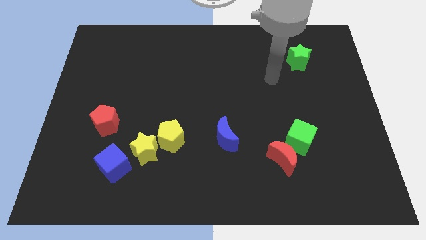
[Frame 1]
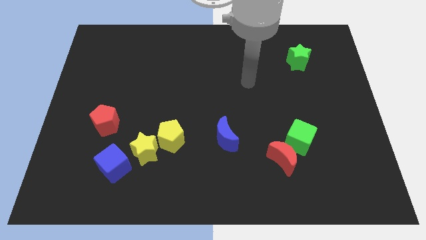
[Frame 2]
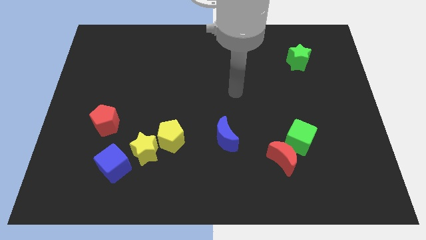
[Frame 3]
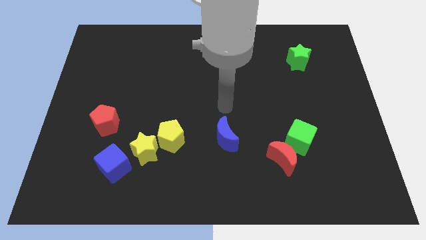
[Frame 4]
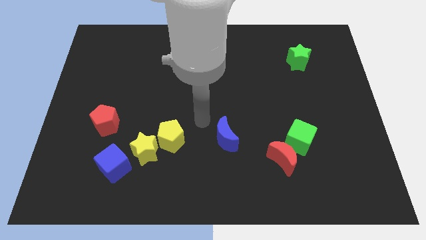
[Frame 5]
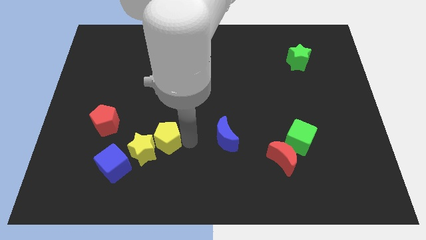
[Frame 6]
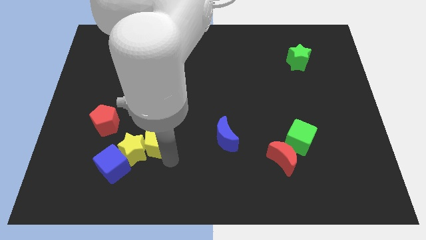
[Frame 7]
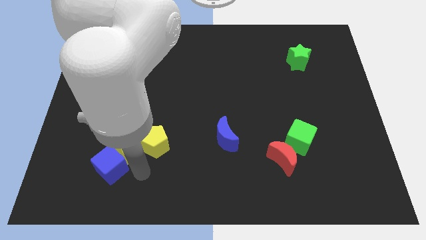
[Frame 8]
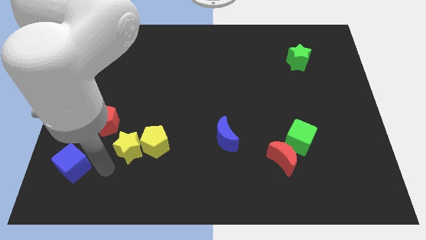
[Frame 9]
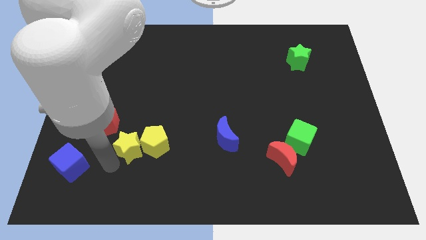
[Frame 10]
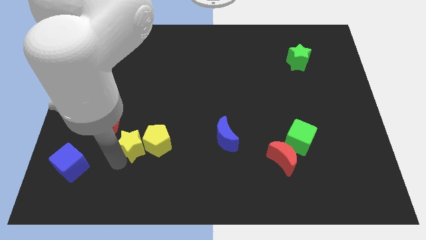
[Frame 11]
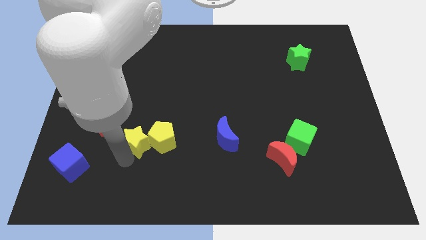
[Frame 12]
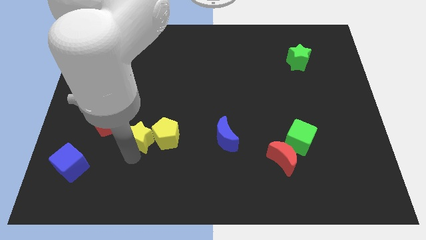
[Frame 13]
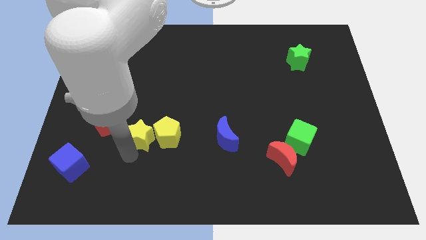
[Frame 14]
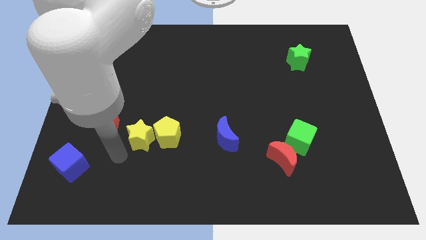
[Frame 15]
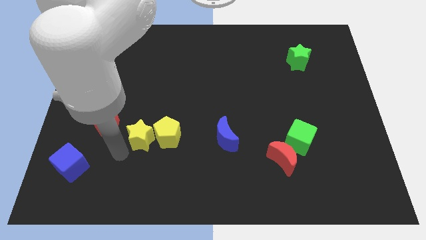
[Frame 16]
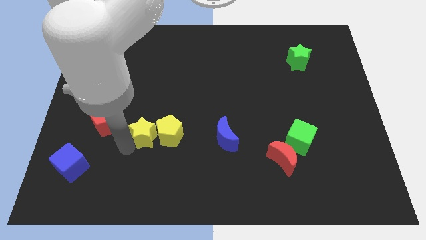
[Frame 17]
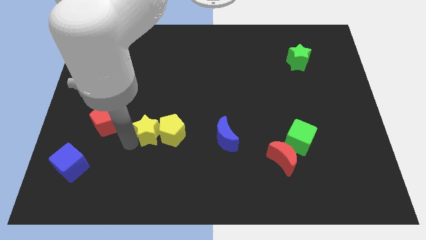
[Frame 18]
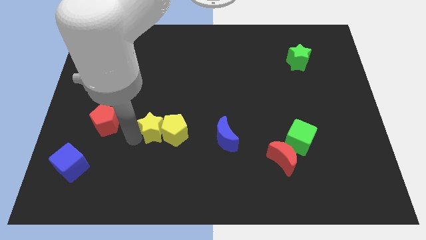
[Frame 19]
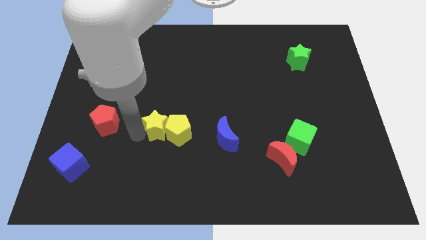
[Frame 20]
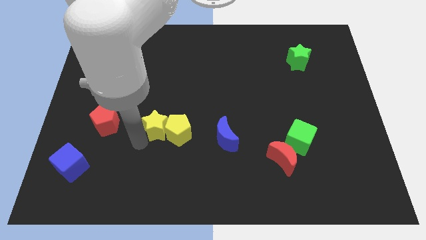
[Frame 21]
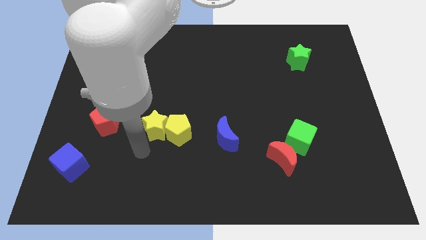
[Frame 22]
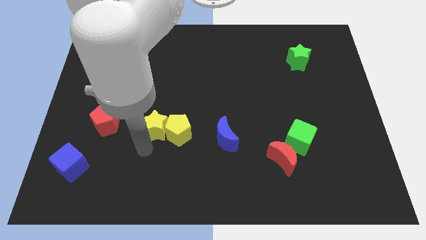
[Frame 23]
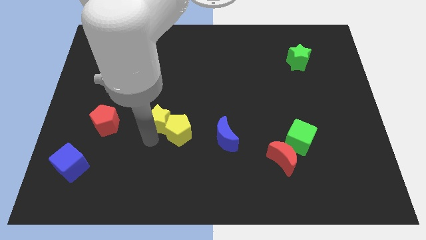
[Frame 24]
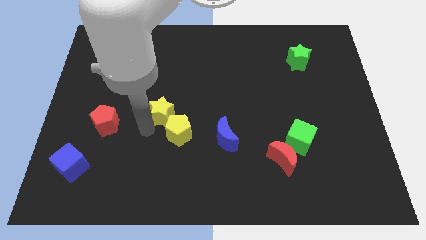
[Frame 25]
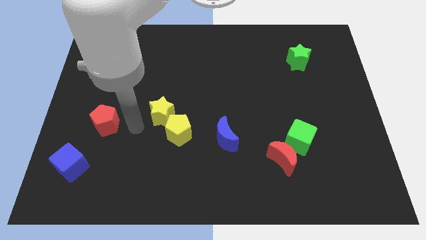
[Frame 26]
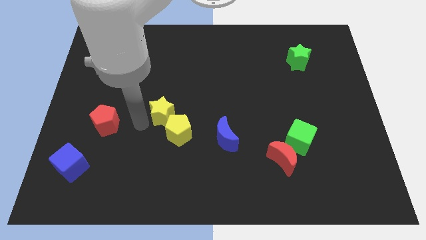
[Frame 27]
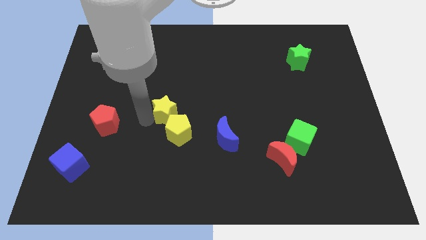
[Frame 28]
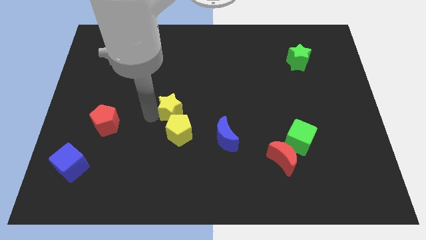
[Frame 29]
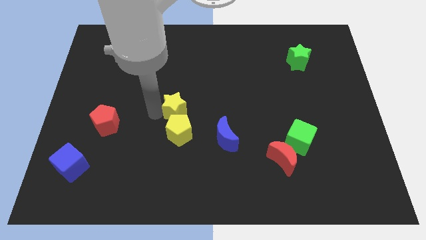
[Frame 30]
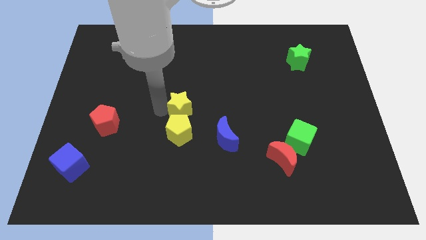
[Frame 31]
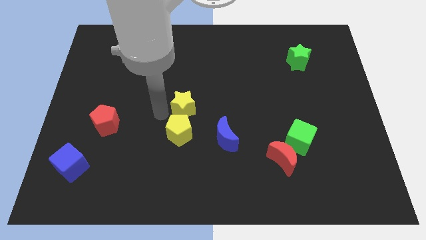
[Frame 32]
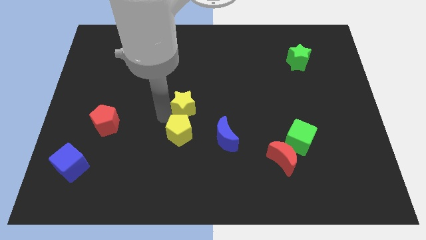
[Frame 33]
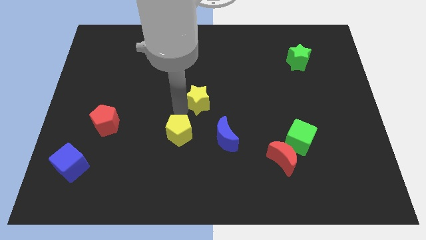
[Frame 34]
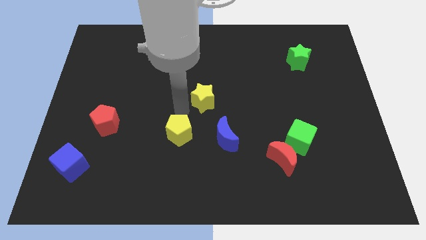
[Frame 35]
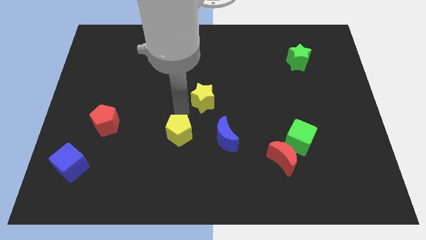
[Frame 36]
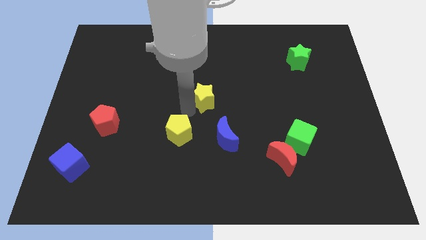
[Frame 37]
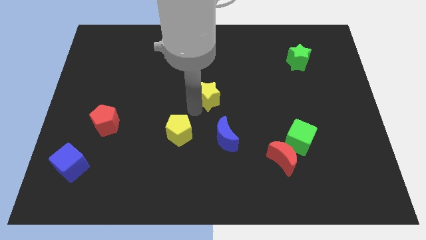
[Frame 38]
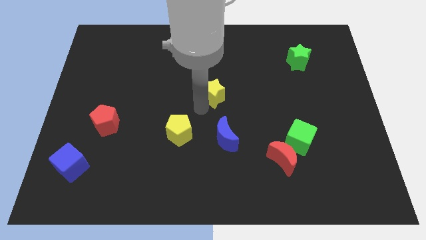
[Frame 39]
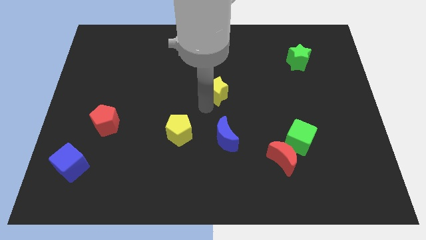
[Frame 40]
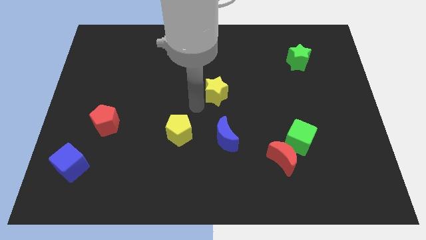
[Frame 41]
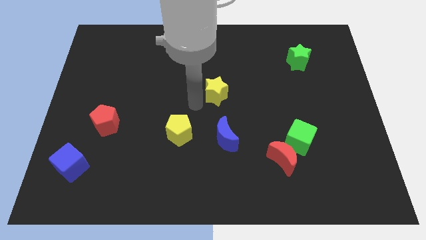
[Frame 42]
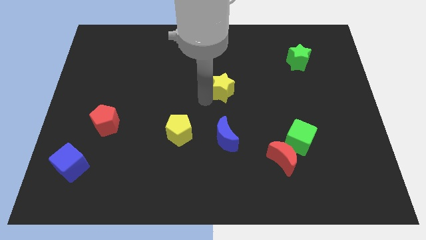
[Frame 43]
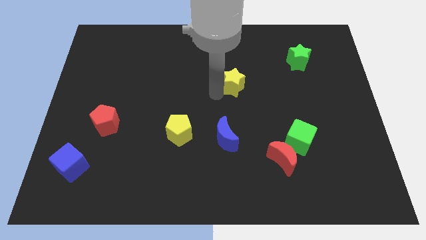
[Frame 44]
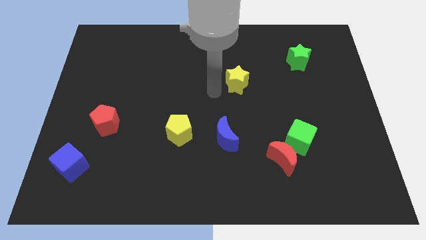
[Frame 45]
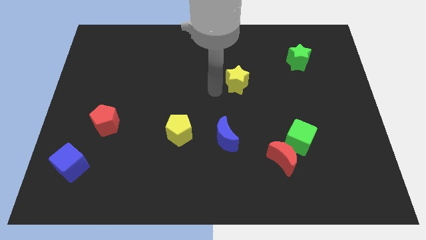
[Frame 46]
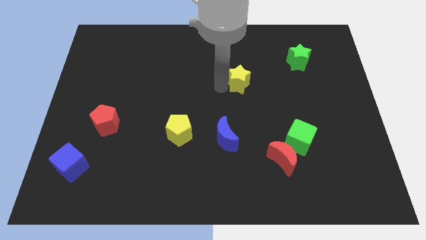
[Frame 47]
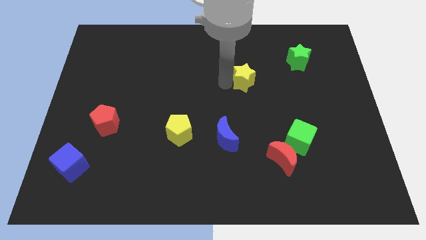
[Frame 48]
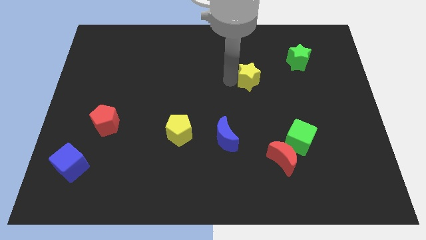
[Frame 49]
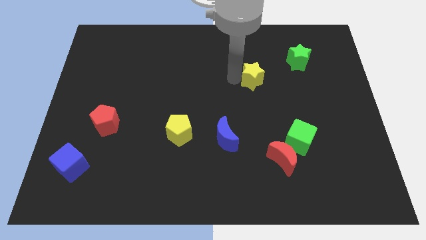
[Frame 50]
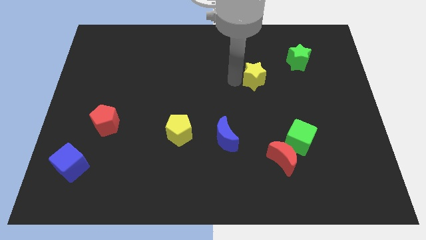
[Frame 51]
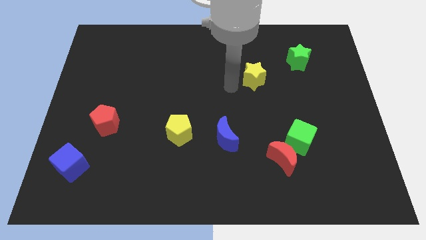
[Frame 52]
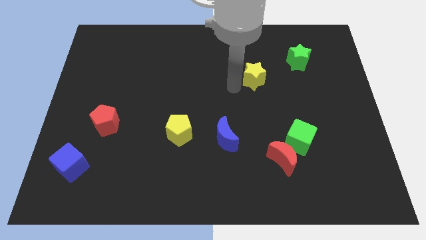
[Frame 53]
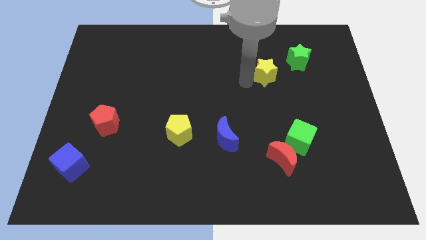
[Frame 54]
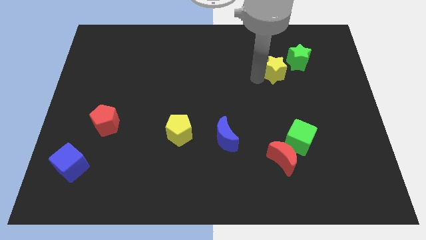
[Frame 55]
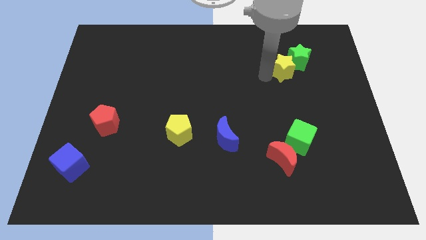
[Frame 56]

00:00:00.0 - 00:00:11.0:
push the yellow star next to the green star

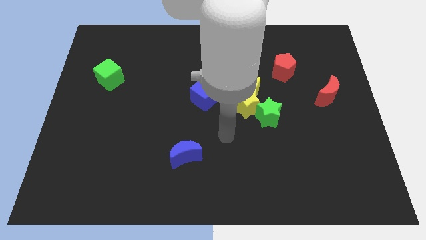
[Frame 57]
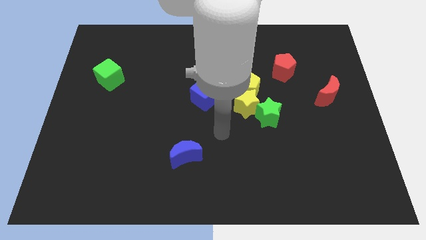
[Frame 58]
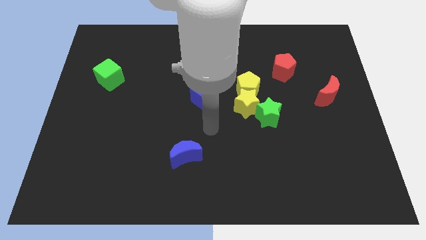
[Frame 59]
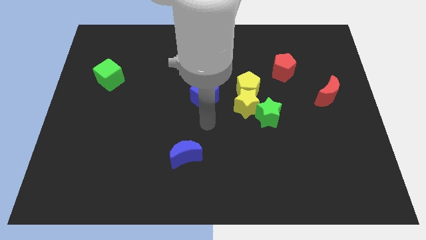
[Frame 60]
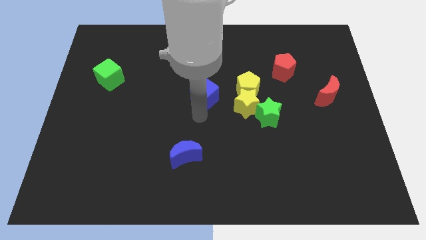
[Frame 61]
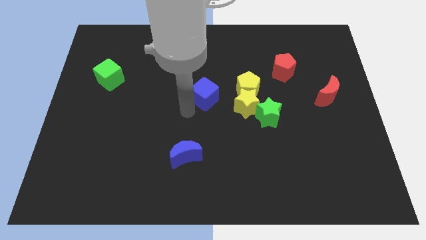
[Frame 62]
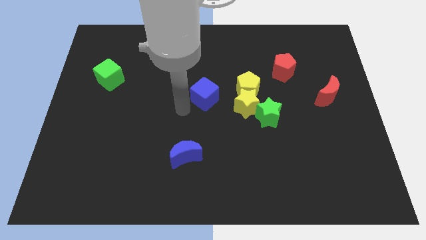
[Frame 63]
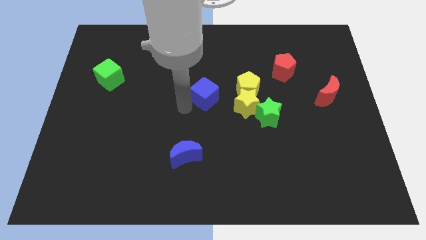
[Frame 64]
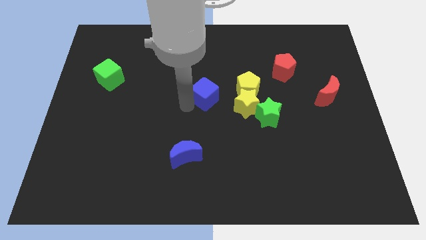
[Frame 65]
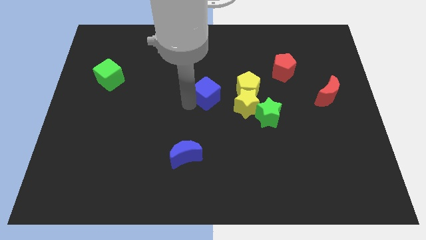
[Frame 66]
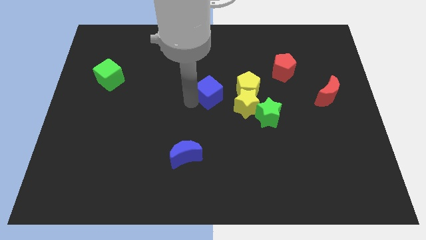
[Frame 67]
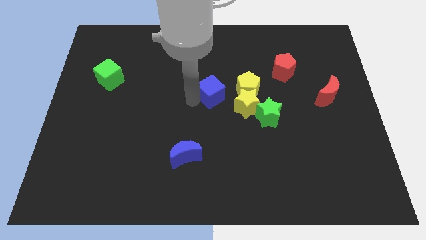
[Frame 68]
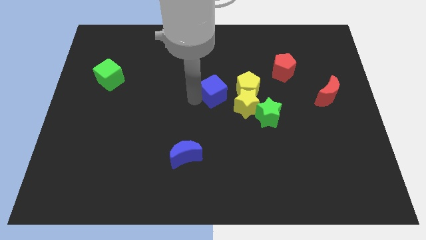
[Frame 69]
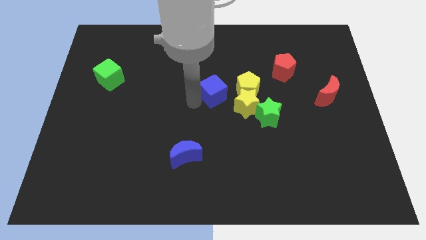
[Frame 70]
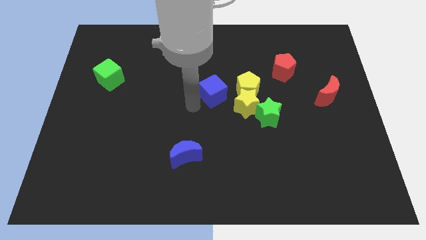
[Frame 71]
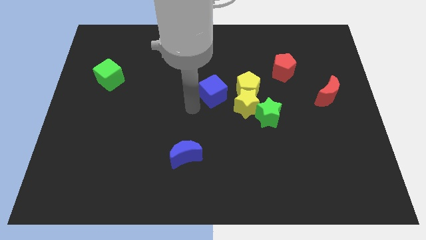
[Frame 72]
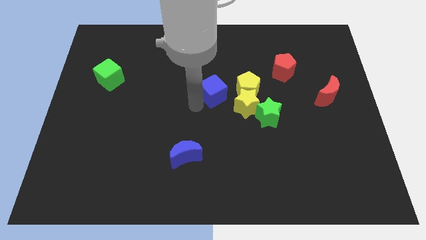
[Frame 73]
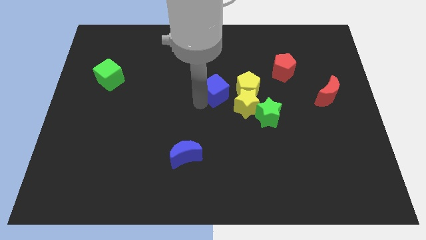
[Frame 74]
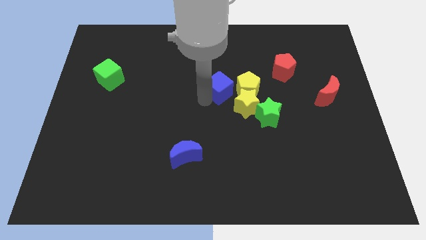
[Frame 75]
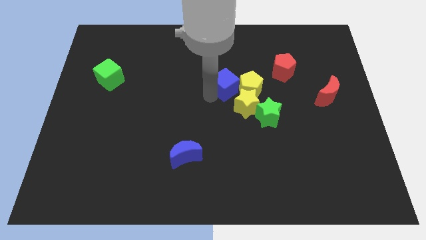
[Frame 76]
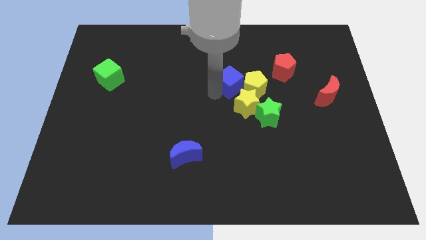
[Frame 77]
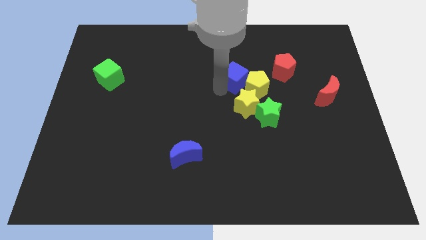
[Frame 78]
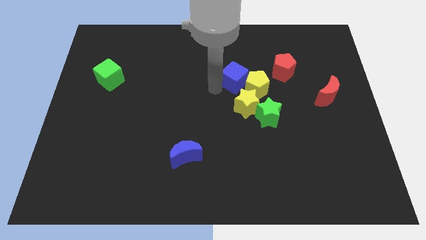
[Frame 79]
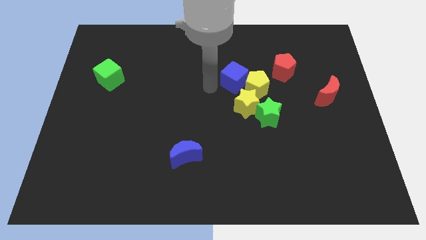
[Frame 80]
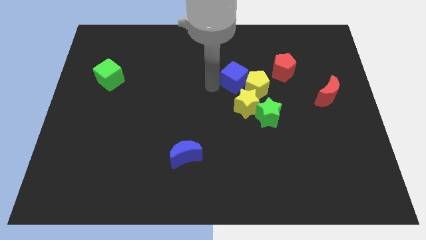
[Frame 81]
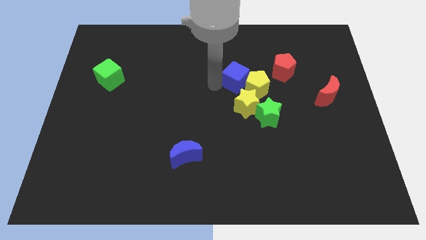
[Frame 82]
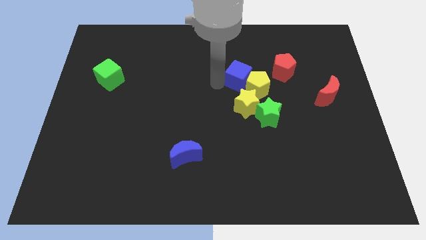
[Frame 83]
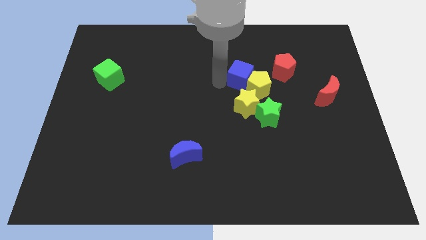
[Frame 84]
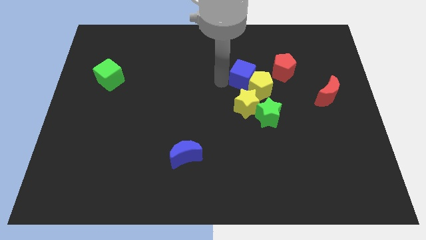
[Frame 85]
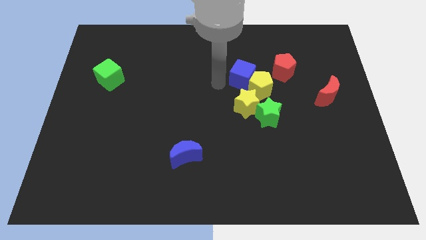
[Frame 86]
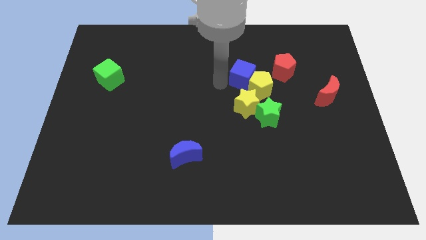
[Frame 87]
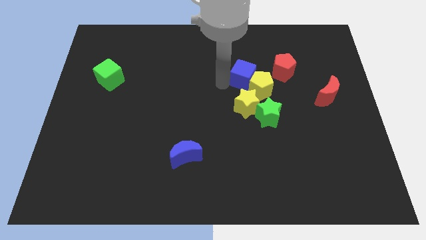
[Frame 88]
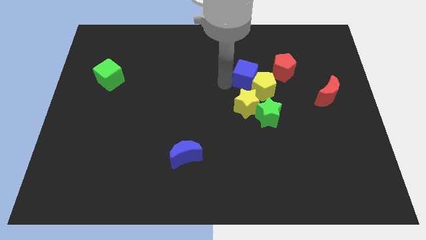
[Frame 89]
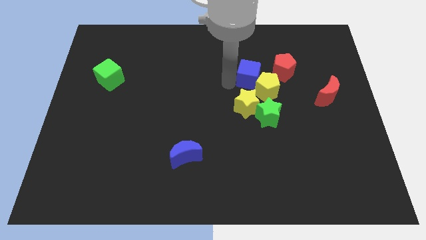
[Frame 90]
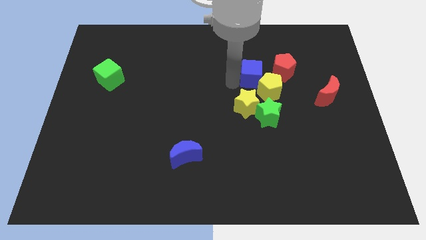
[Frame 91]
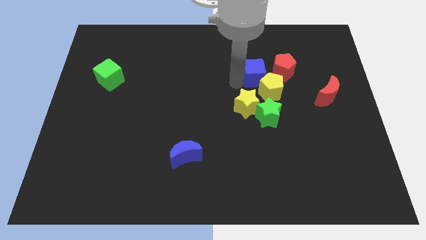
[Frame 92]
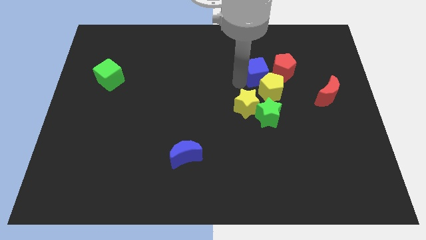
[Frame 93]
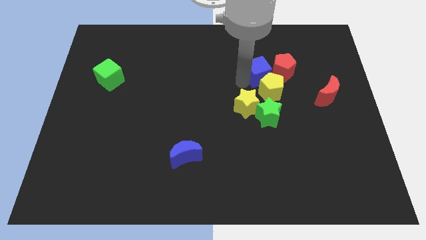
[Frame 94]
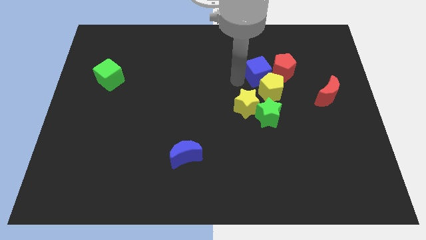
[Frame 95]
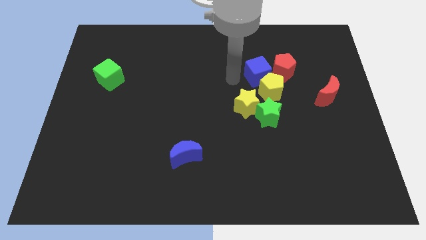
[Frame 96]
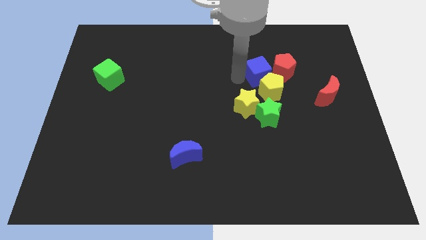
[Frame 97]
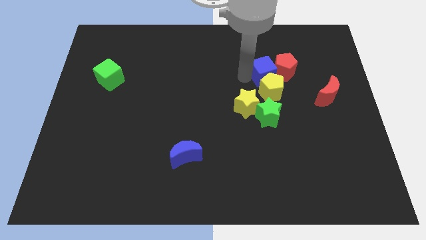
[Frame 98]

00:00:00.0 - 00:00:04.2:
push the blue cube towards the red pentagon
